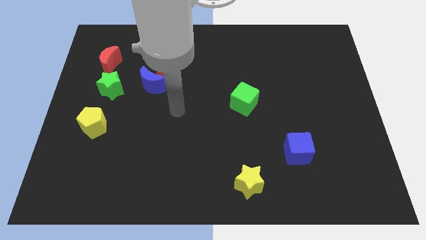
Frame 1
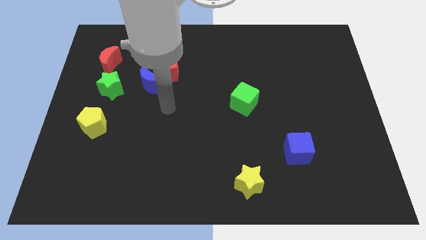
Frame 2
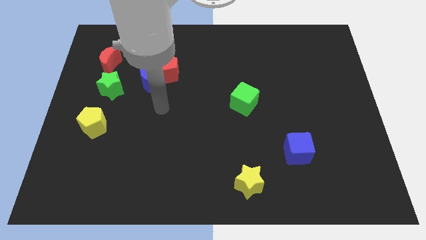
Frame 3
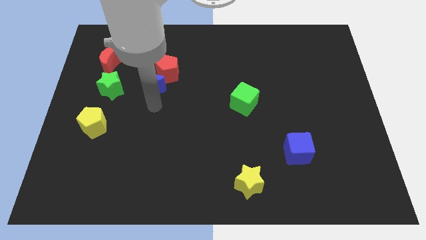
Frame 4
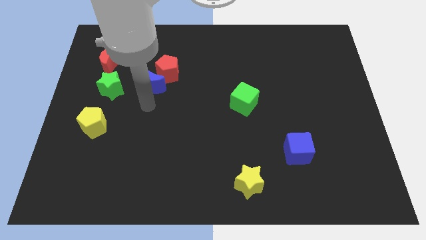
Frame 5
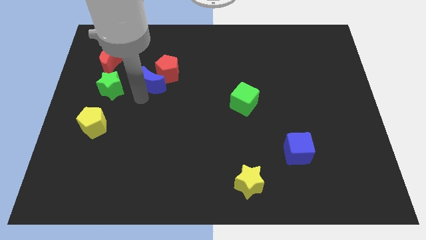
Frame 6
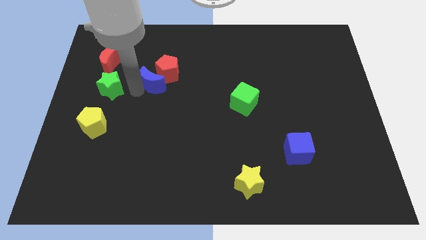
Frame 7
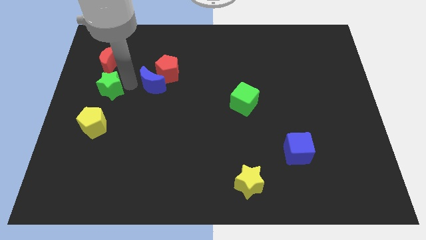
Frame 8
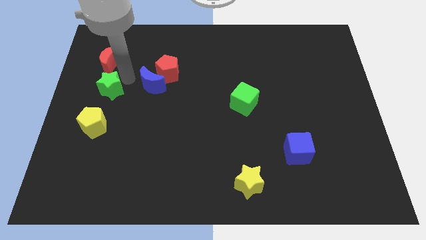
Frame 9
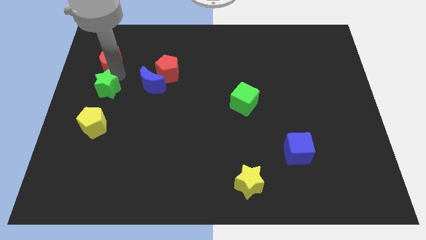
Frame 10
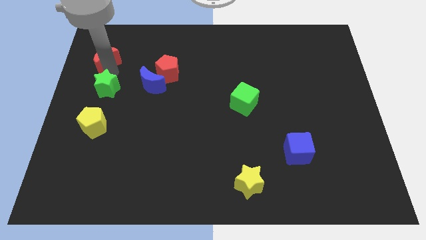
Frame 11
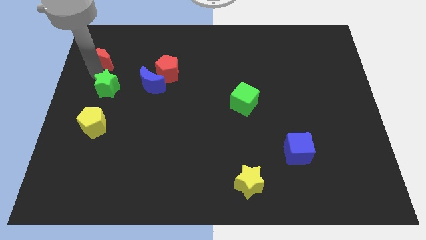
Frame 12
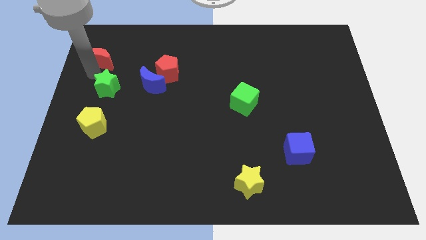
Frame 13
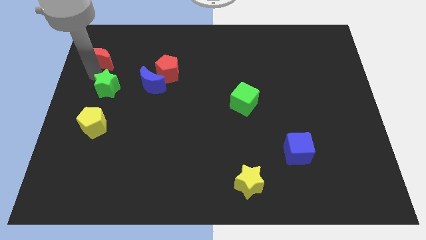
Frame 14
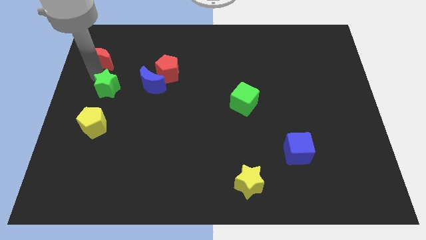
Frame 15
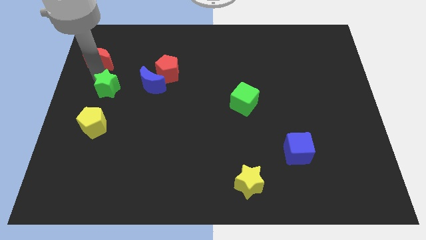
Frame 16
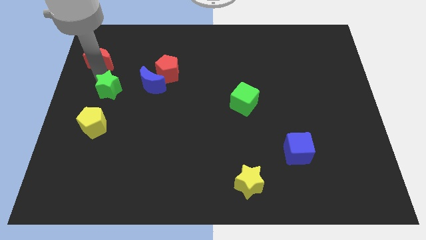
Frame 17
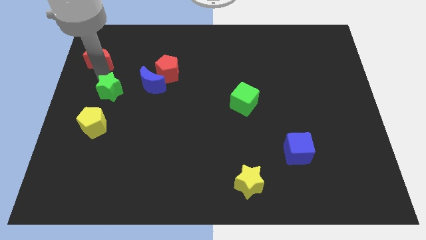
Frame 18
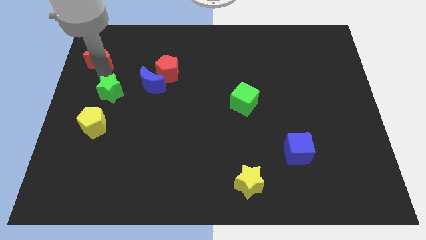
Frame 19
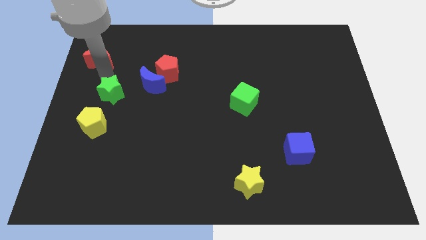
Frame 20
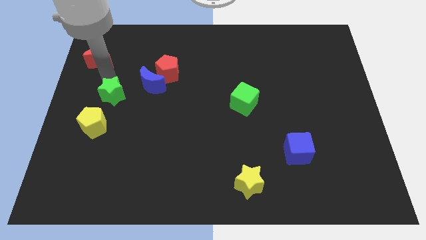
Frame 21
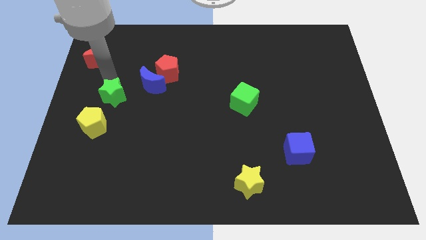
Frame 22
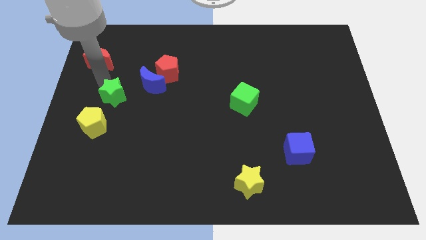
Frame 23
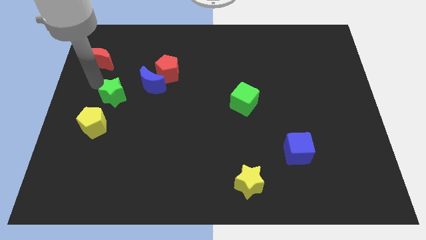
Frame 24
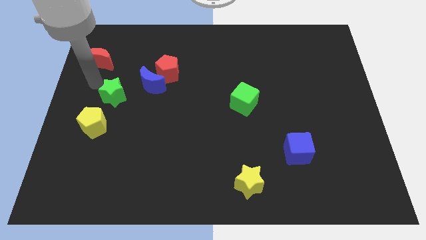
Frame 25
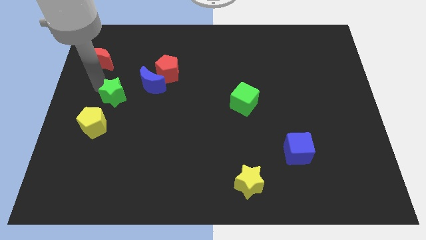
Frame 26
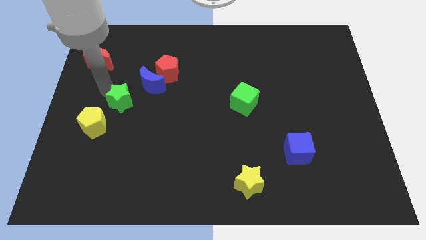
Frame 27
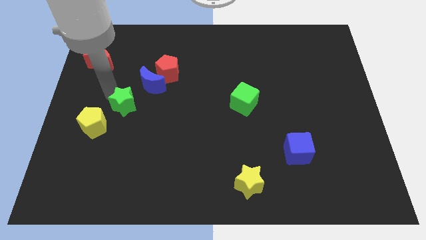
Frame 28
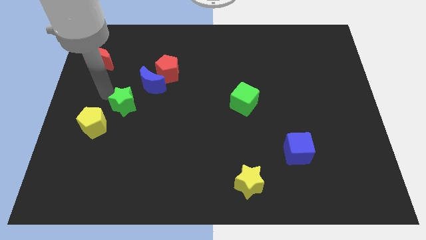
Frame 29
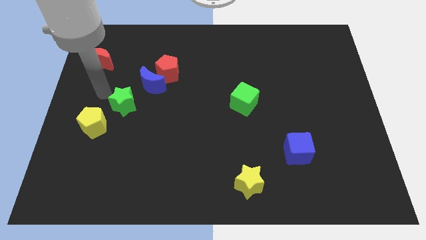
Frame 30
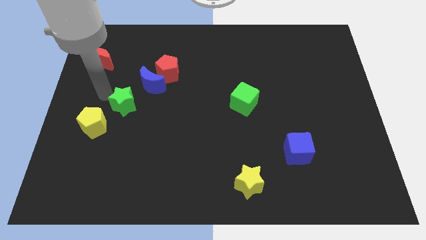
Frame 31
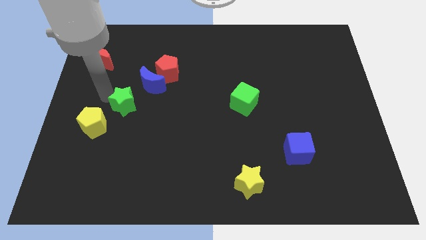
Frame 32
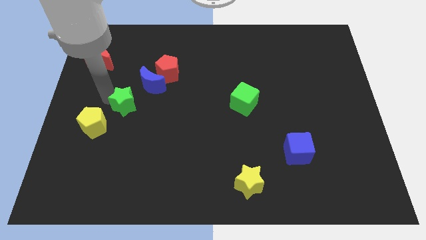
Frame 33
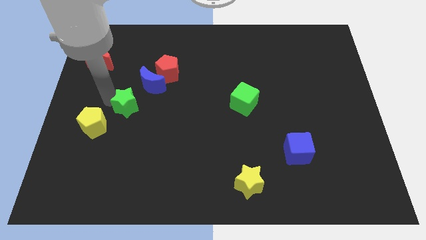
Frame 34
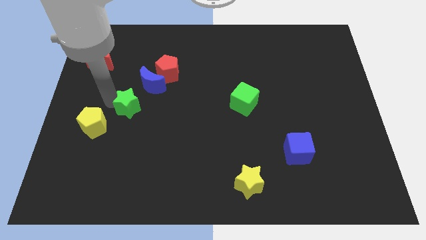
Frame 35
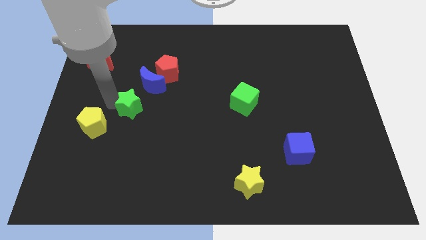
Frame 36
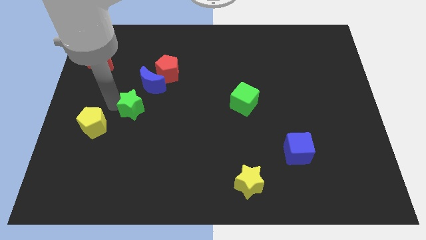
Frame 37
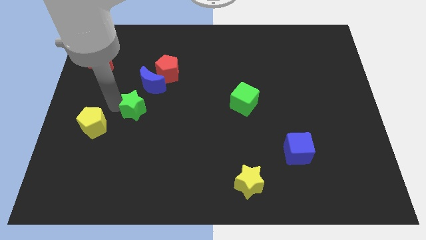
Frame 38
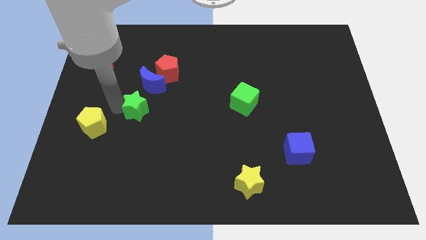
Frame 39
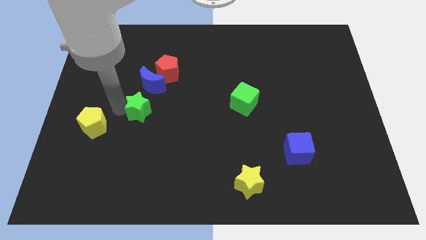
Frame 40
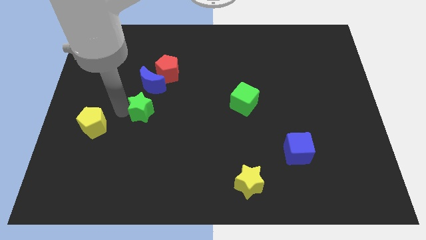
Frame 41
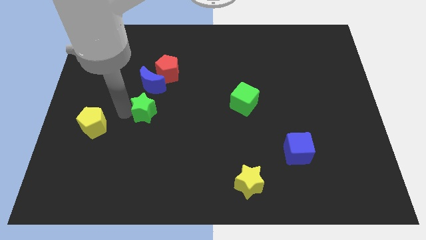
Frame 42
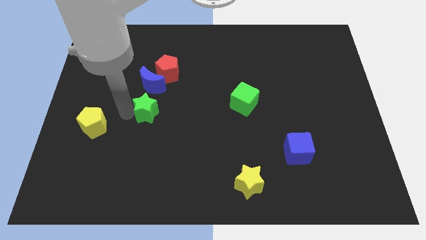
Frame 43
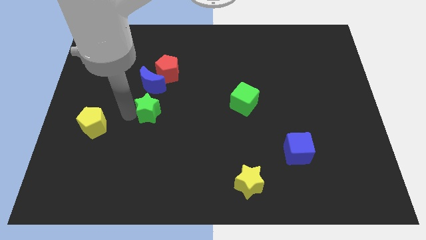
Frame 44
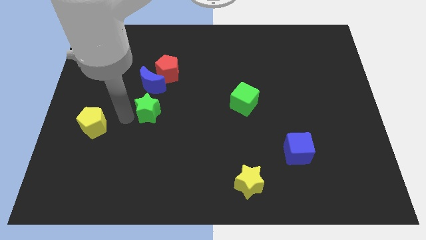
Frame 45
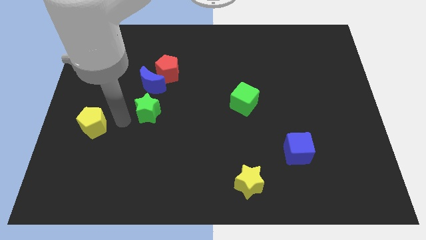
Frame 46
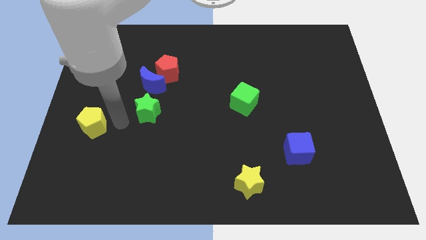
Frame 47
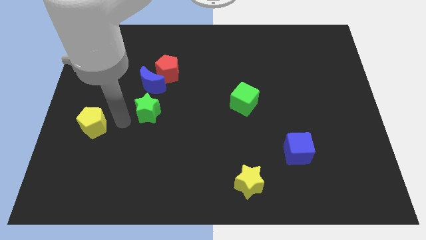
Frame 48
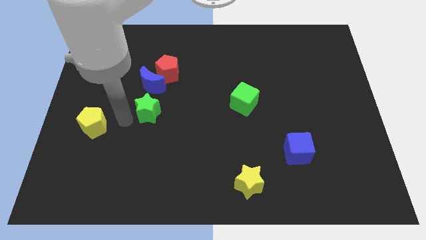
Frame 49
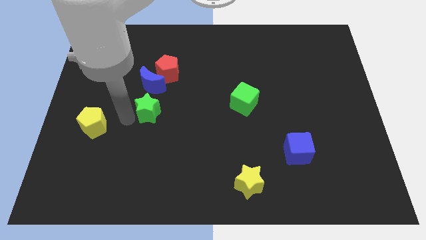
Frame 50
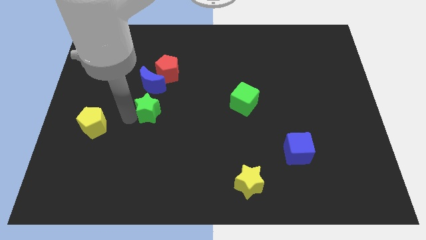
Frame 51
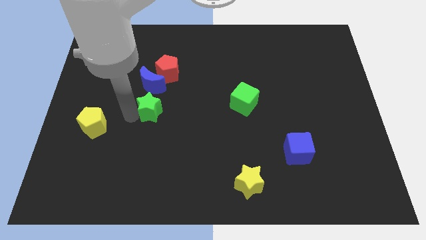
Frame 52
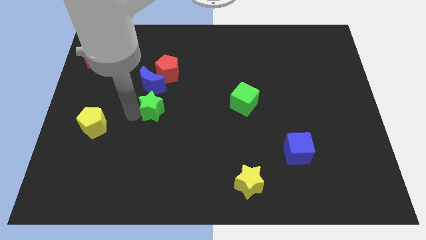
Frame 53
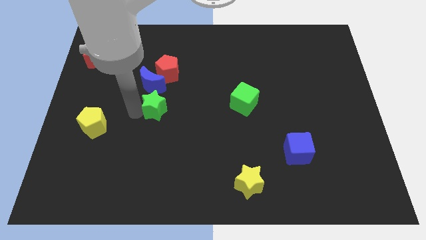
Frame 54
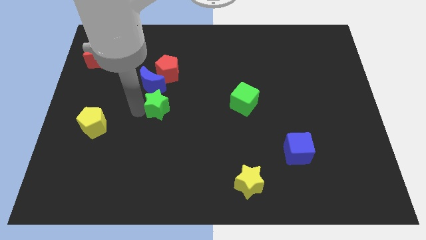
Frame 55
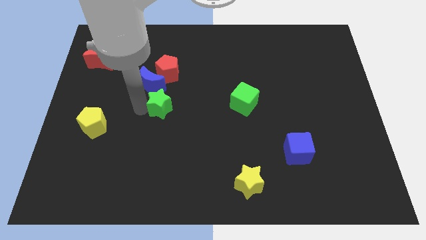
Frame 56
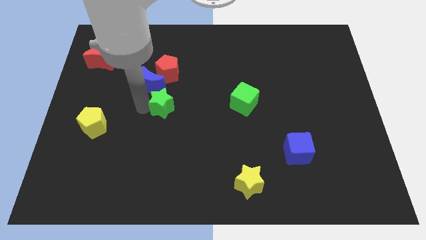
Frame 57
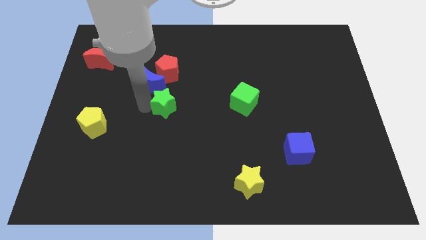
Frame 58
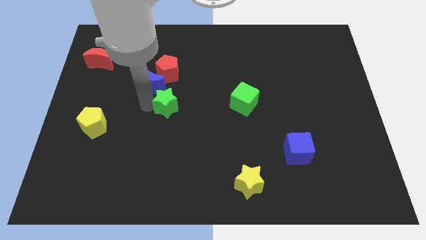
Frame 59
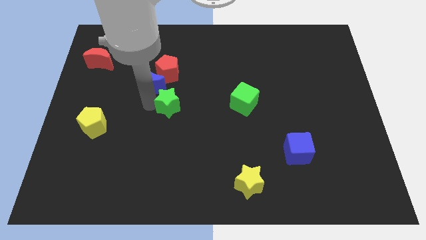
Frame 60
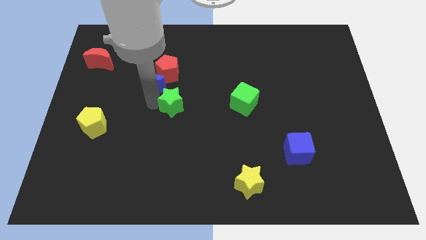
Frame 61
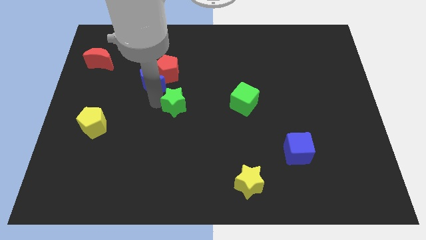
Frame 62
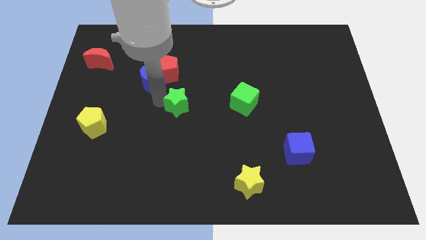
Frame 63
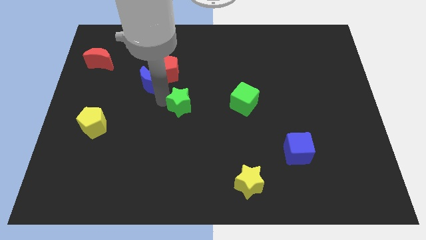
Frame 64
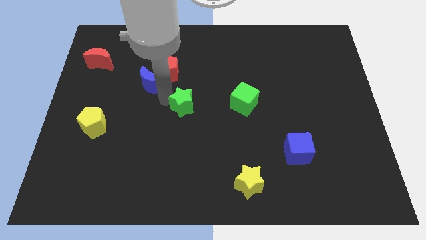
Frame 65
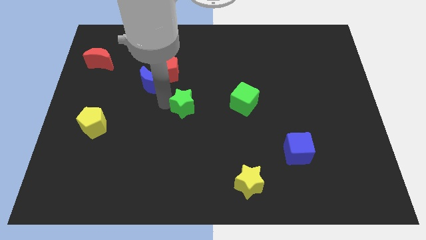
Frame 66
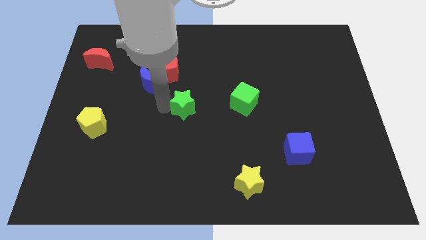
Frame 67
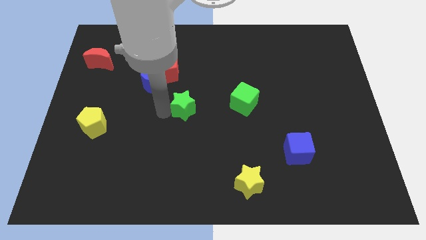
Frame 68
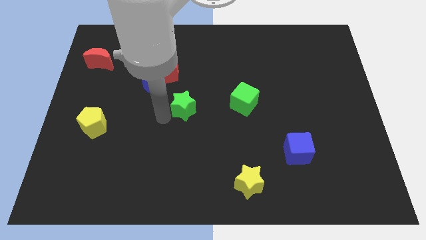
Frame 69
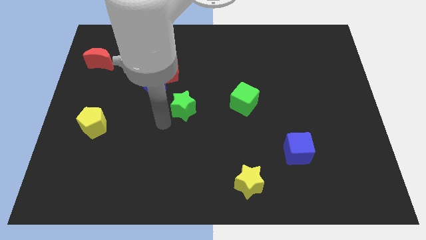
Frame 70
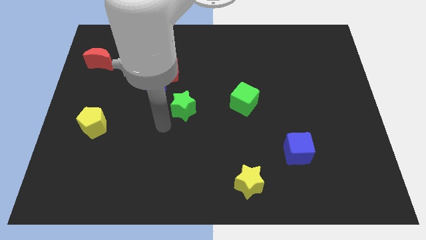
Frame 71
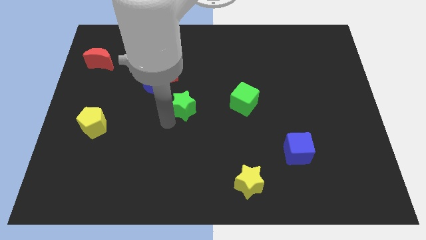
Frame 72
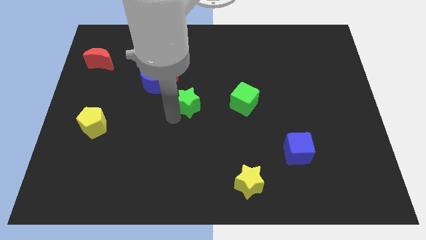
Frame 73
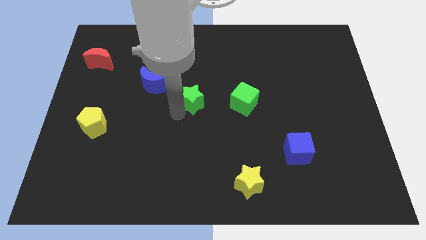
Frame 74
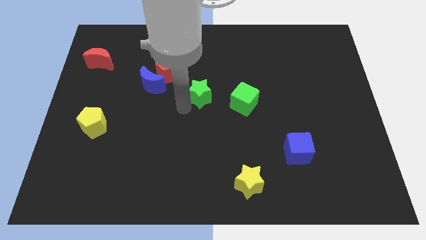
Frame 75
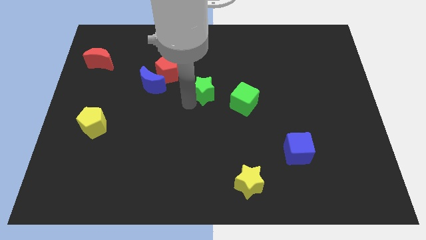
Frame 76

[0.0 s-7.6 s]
put the green star diagonally up and to the left of the green cube
